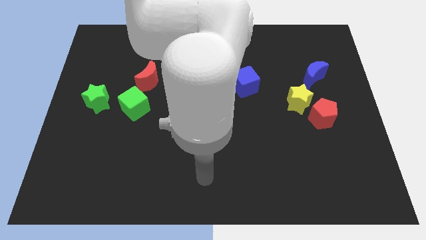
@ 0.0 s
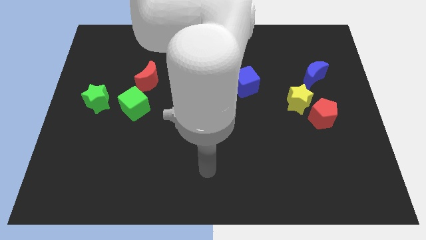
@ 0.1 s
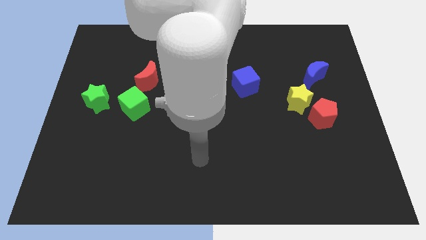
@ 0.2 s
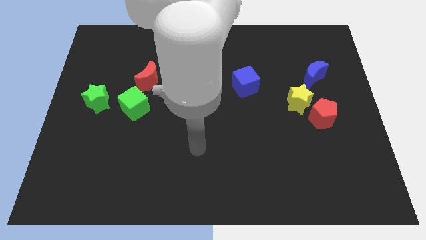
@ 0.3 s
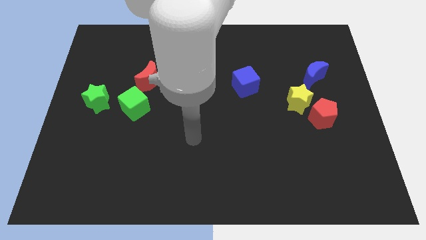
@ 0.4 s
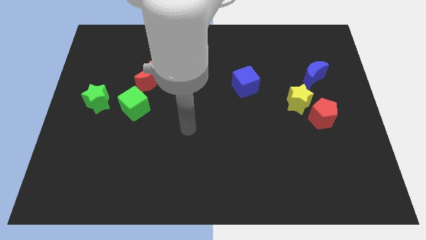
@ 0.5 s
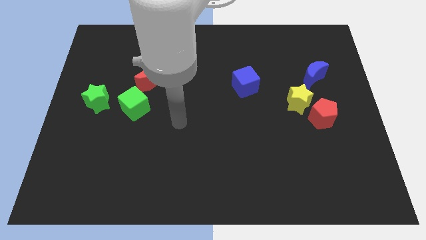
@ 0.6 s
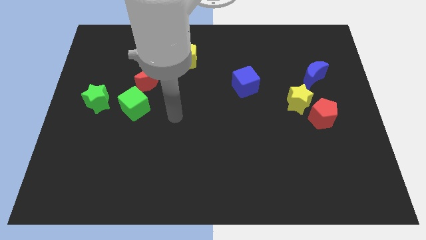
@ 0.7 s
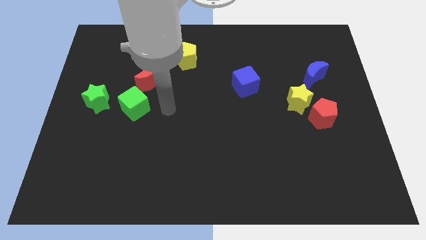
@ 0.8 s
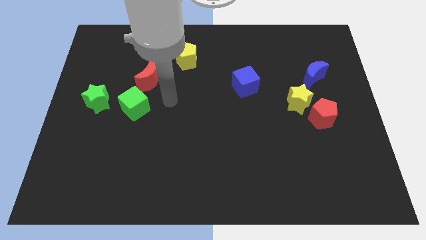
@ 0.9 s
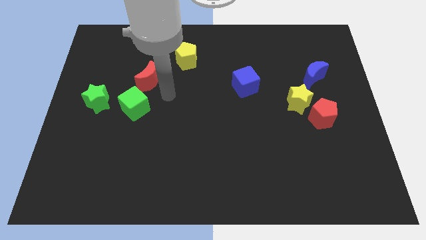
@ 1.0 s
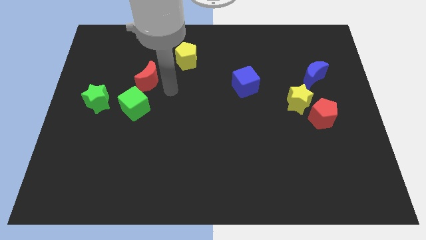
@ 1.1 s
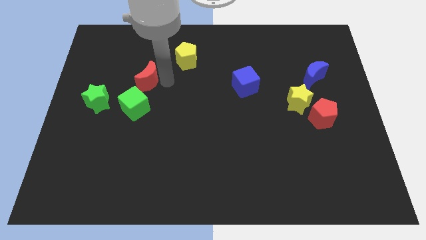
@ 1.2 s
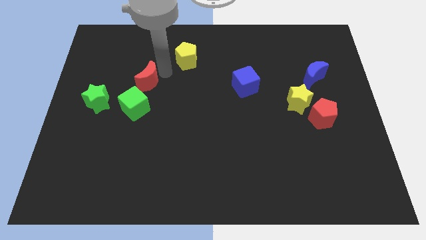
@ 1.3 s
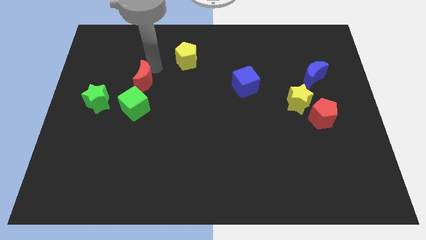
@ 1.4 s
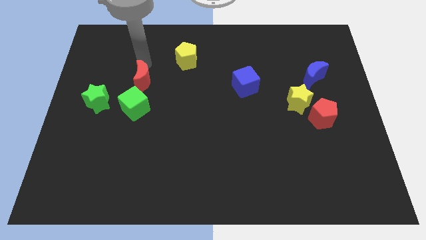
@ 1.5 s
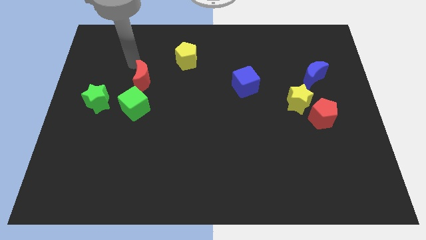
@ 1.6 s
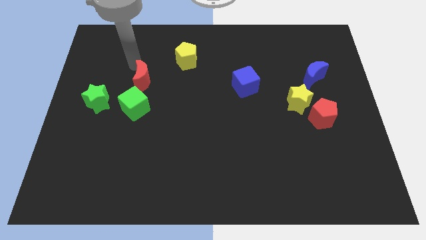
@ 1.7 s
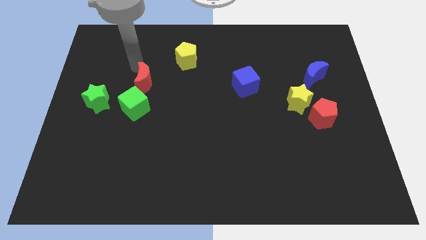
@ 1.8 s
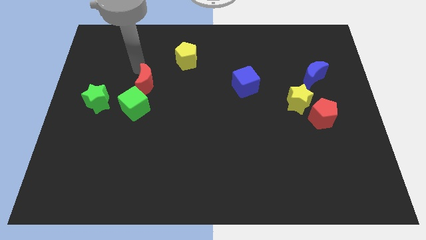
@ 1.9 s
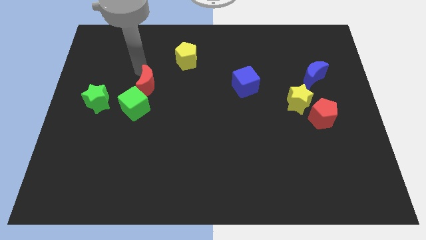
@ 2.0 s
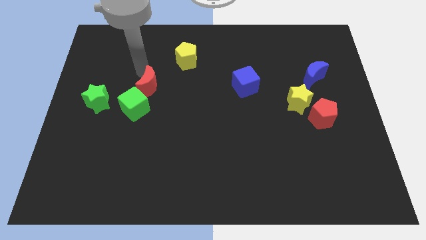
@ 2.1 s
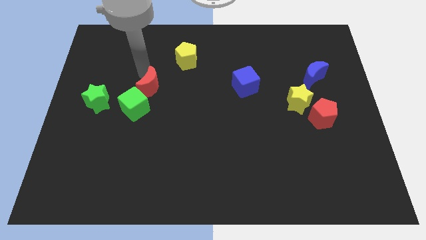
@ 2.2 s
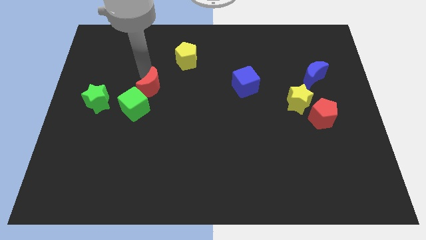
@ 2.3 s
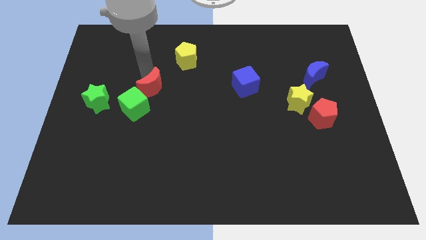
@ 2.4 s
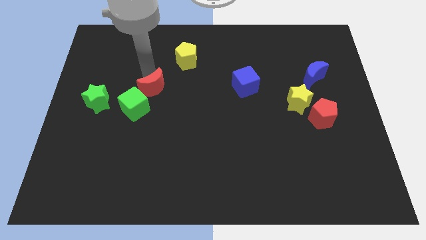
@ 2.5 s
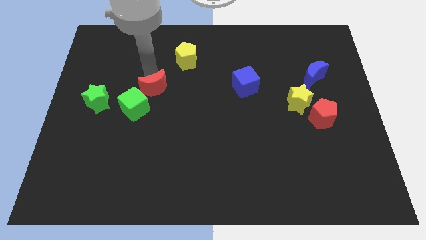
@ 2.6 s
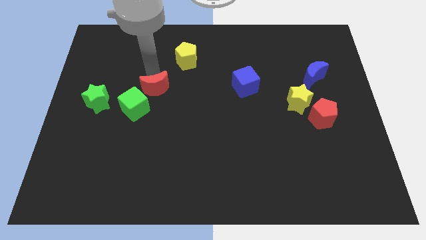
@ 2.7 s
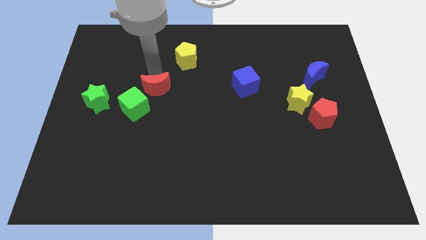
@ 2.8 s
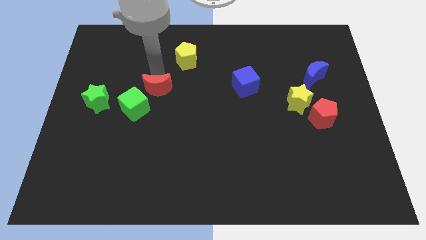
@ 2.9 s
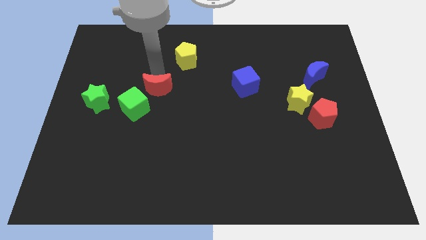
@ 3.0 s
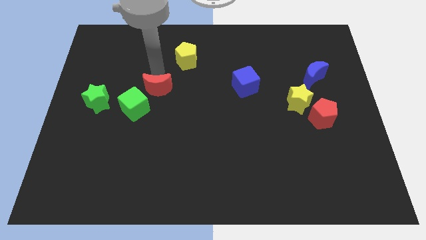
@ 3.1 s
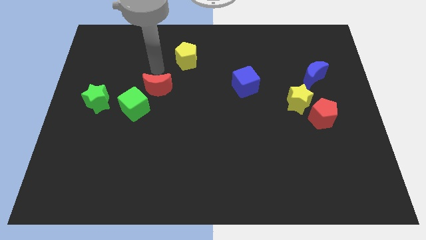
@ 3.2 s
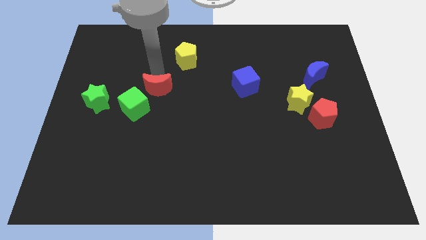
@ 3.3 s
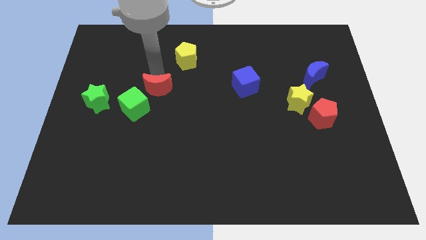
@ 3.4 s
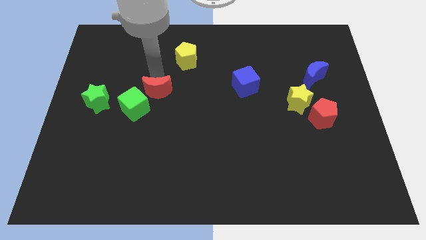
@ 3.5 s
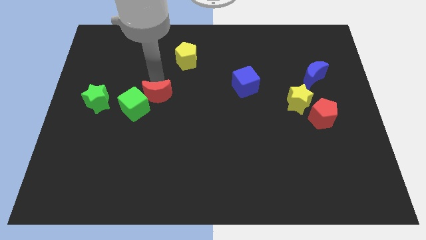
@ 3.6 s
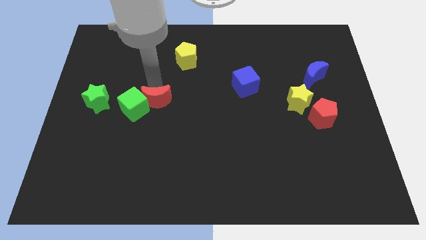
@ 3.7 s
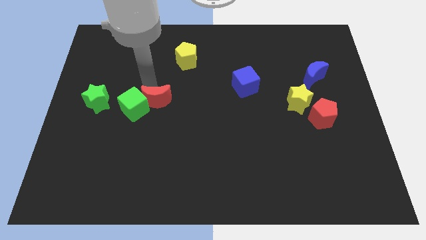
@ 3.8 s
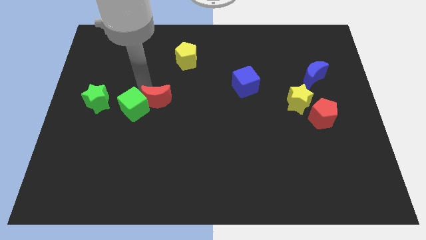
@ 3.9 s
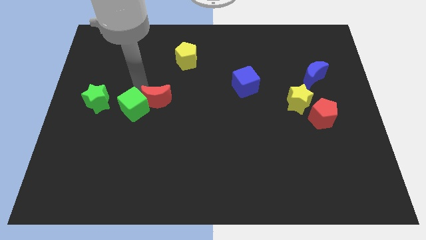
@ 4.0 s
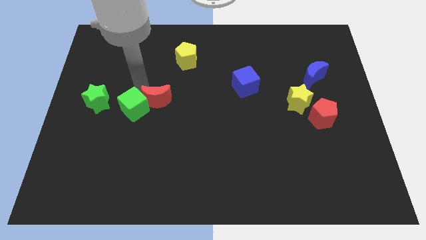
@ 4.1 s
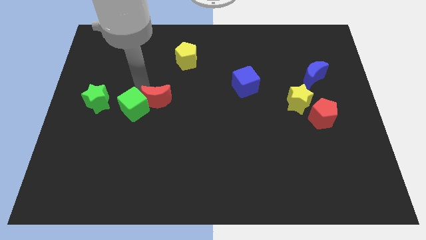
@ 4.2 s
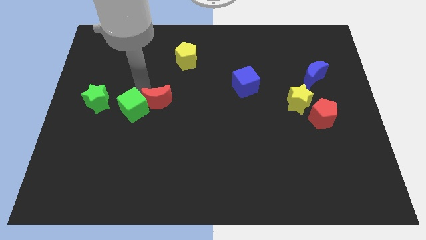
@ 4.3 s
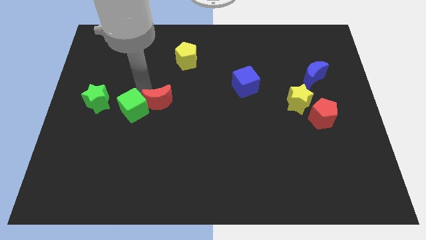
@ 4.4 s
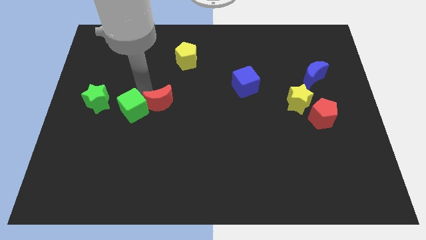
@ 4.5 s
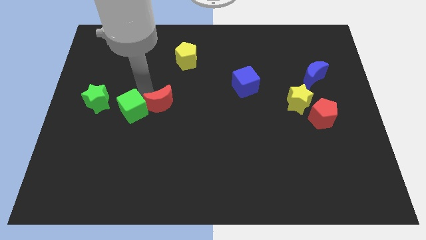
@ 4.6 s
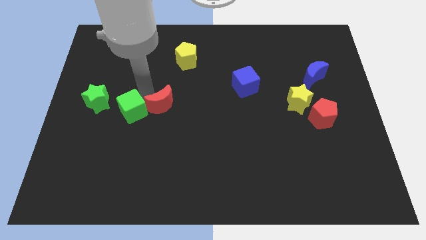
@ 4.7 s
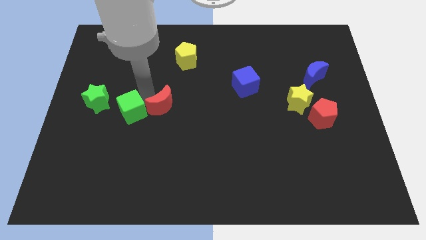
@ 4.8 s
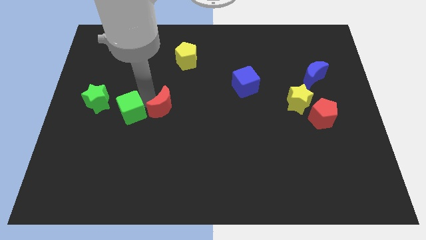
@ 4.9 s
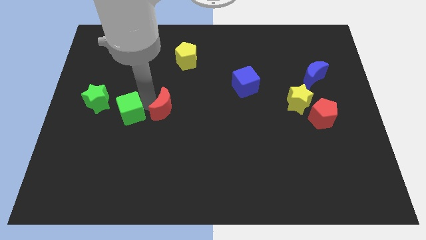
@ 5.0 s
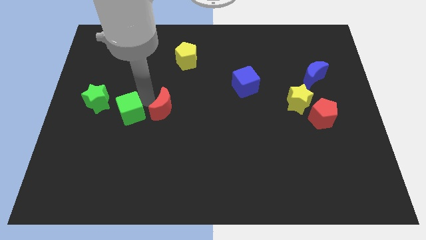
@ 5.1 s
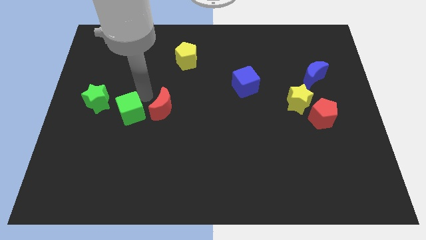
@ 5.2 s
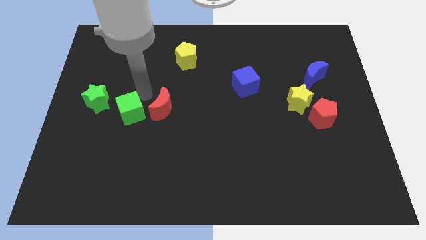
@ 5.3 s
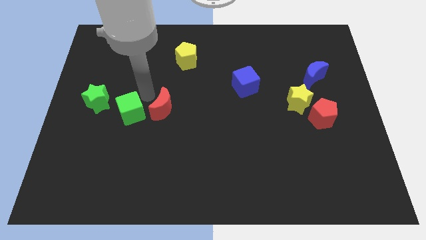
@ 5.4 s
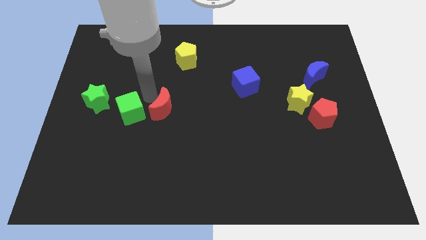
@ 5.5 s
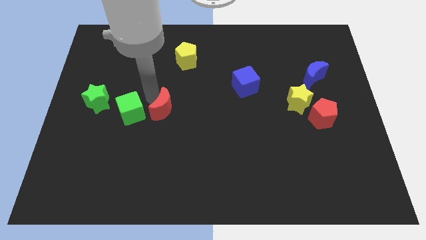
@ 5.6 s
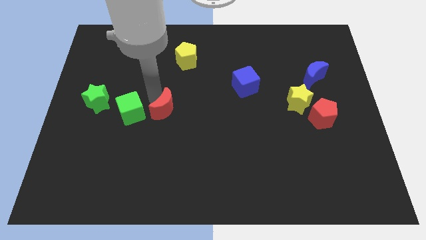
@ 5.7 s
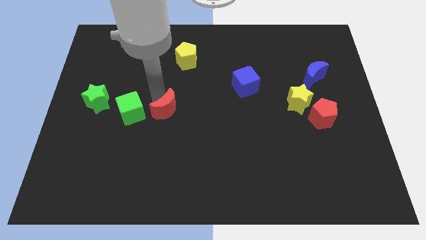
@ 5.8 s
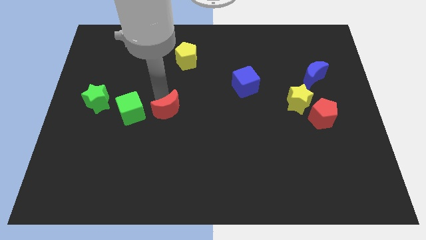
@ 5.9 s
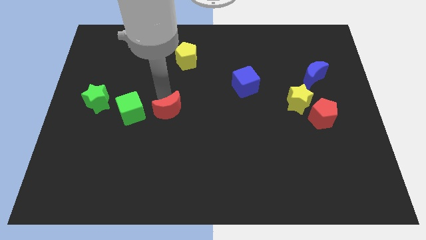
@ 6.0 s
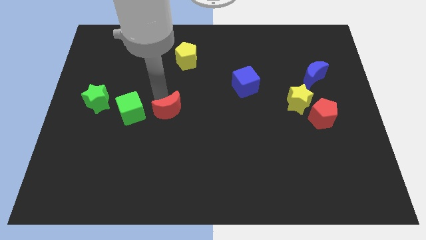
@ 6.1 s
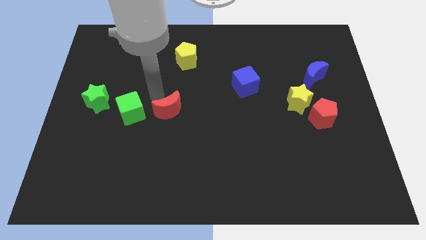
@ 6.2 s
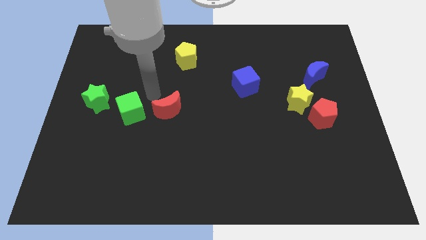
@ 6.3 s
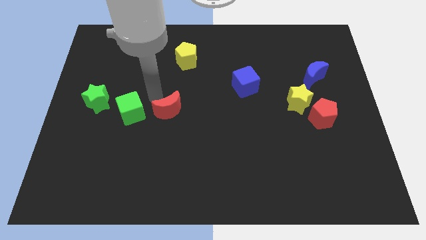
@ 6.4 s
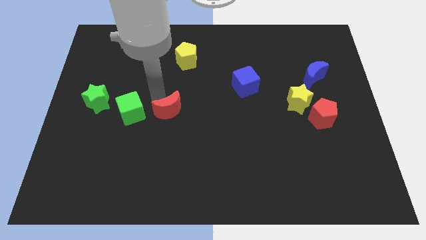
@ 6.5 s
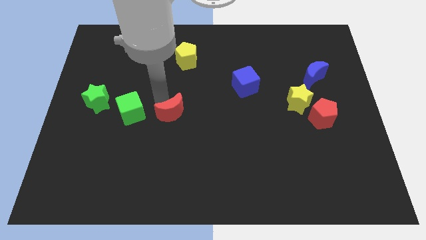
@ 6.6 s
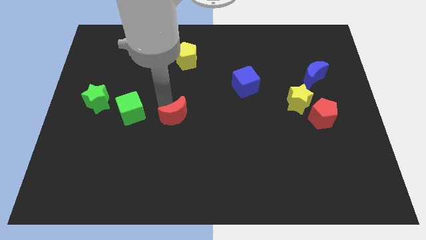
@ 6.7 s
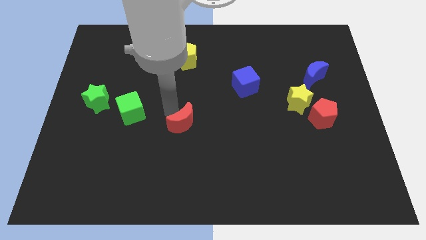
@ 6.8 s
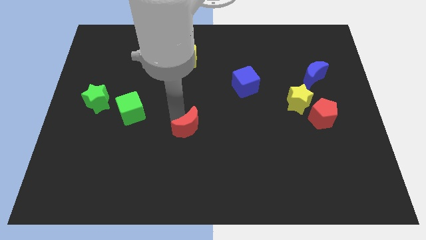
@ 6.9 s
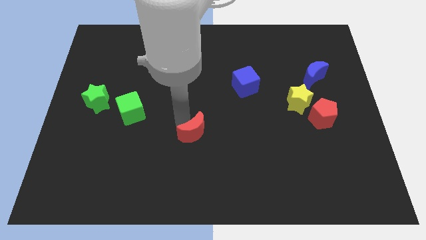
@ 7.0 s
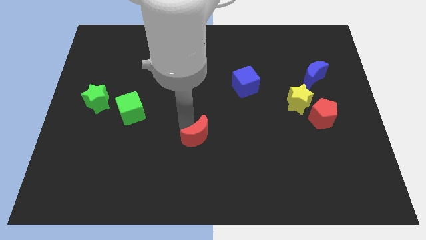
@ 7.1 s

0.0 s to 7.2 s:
move the red moon down and then right

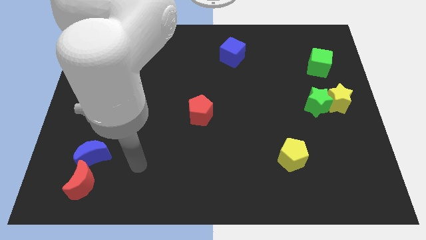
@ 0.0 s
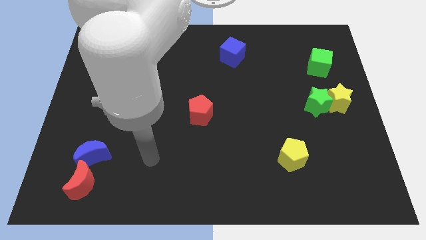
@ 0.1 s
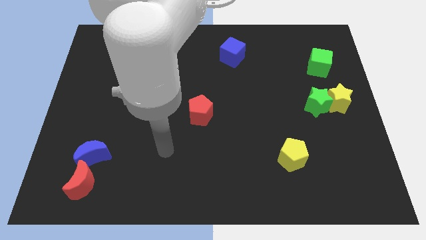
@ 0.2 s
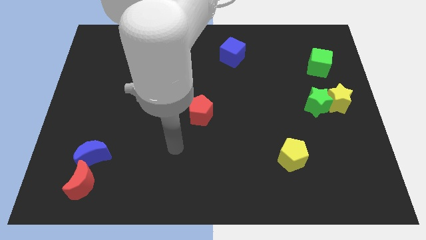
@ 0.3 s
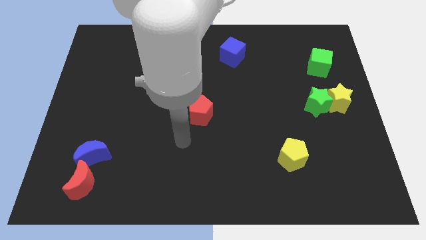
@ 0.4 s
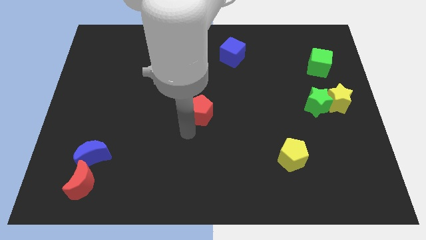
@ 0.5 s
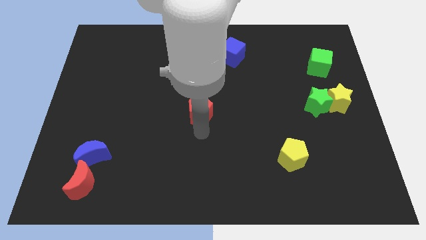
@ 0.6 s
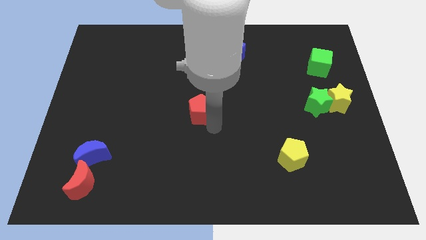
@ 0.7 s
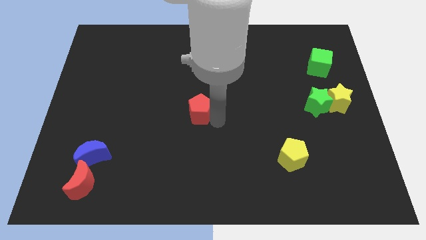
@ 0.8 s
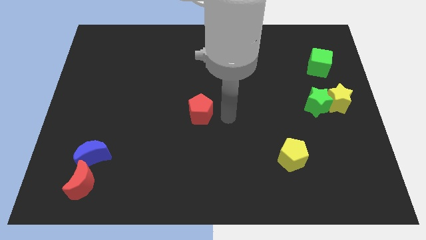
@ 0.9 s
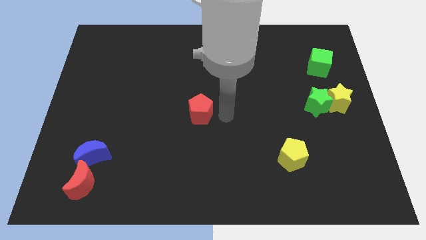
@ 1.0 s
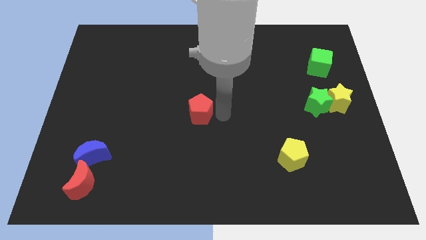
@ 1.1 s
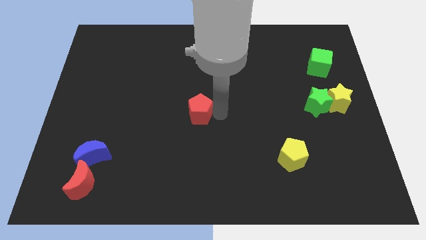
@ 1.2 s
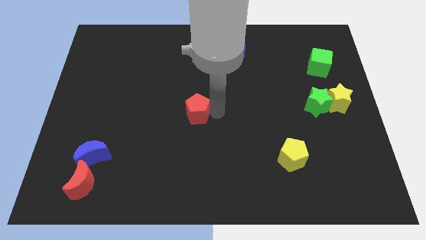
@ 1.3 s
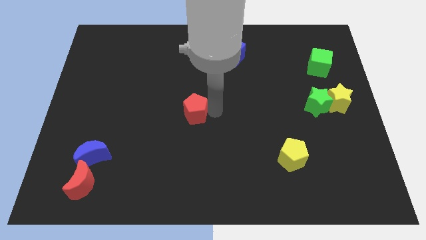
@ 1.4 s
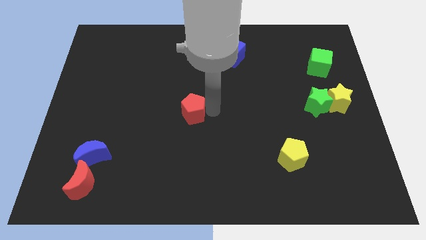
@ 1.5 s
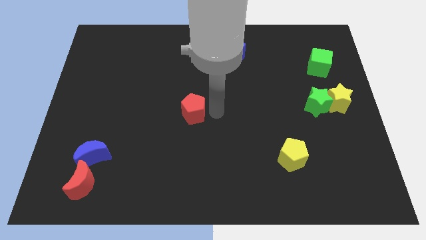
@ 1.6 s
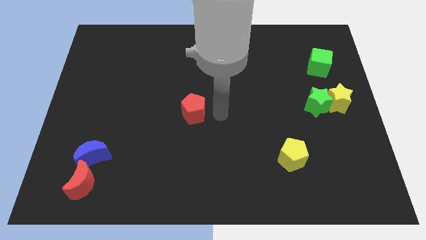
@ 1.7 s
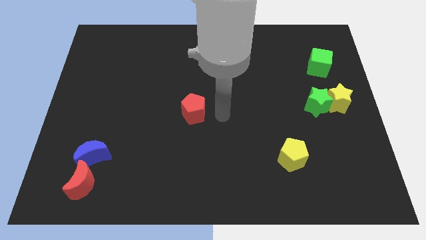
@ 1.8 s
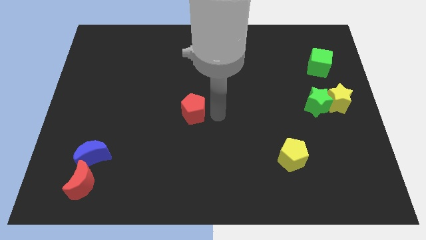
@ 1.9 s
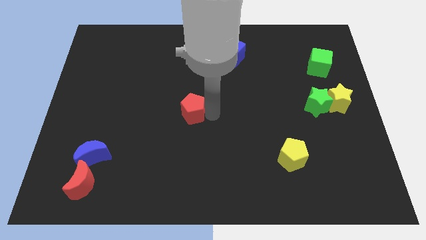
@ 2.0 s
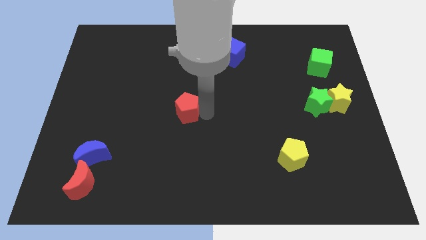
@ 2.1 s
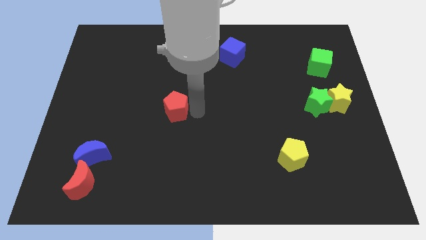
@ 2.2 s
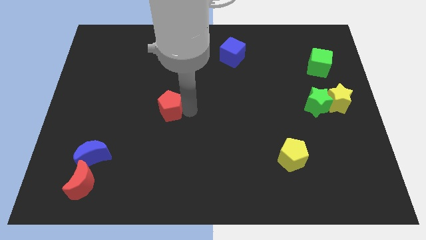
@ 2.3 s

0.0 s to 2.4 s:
move the red pentagon left a bit
